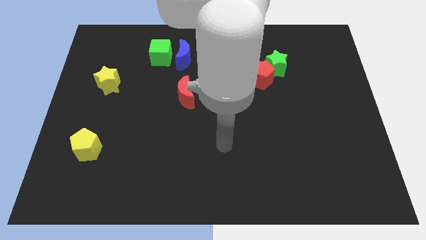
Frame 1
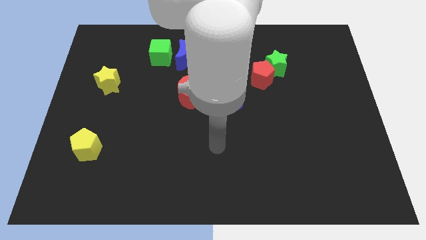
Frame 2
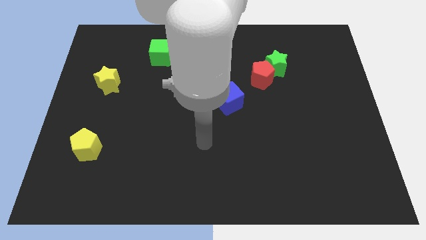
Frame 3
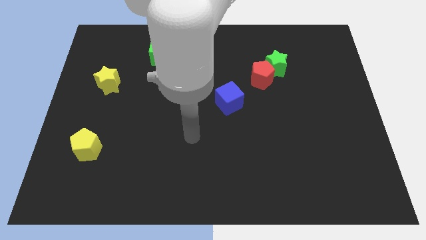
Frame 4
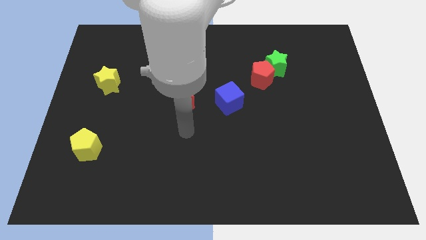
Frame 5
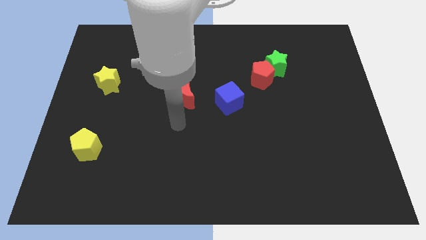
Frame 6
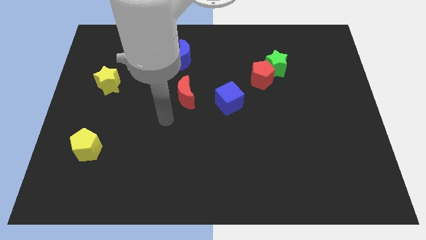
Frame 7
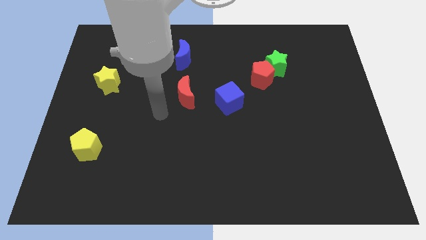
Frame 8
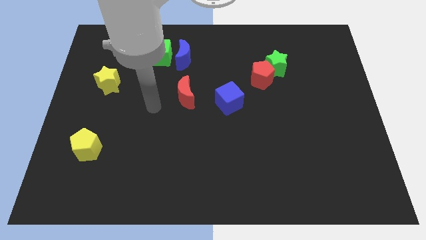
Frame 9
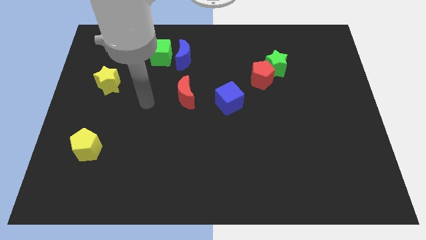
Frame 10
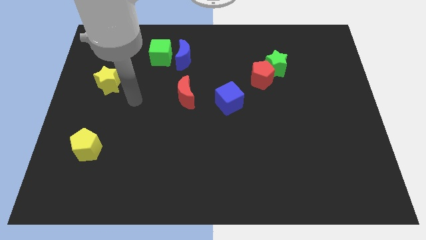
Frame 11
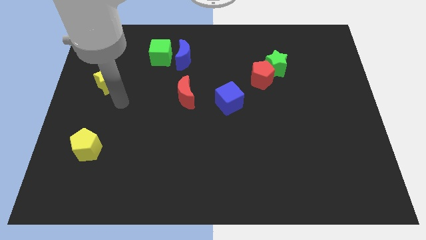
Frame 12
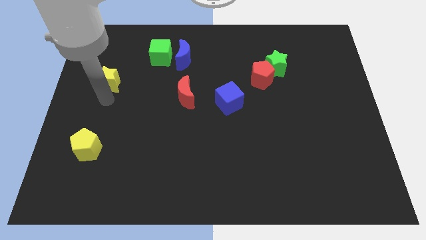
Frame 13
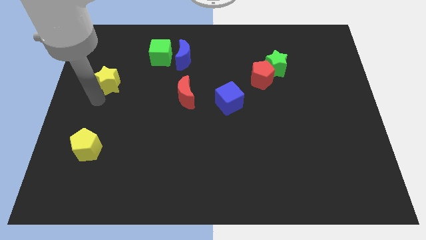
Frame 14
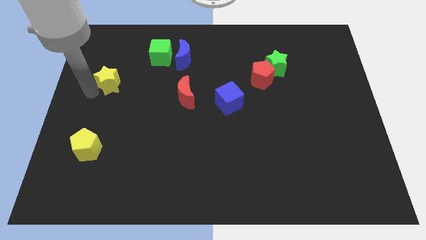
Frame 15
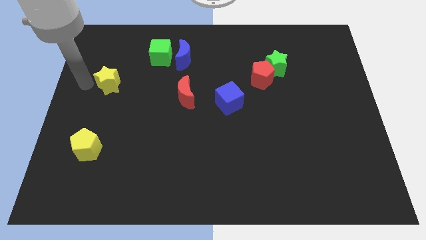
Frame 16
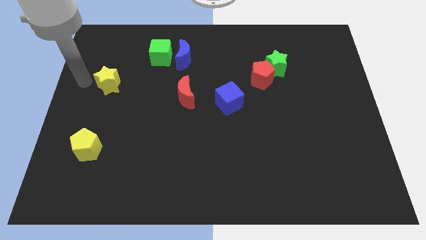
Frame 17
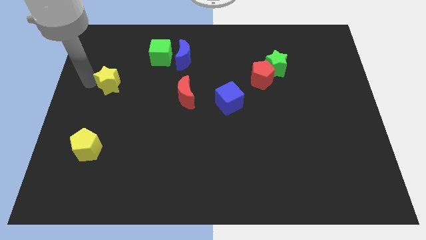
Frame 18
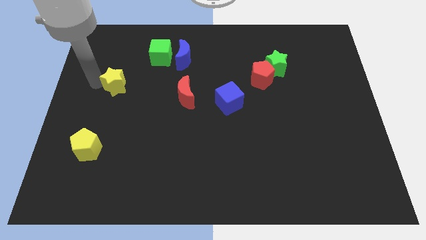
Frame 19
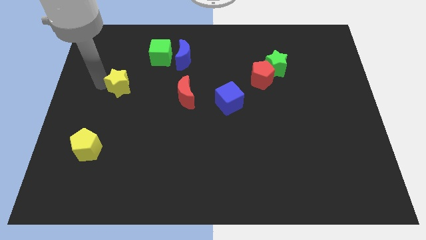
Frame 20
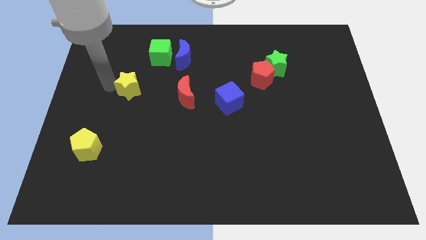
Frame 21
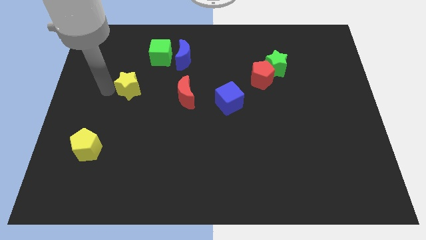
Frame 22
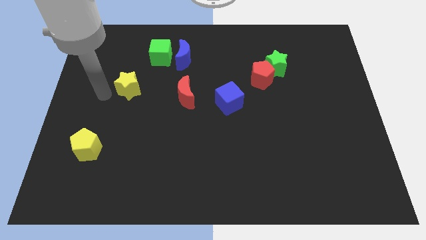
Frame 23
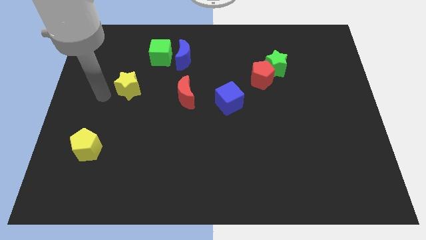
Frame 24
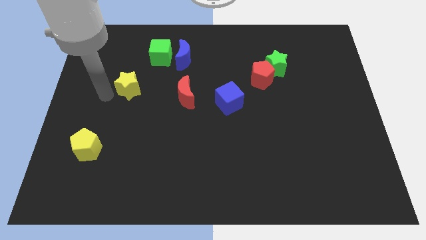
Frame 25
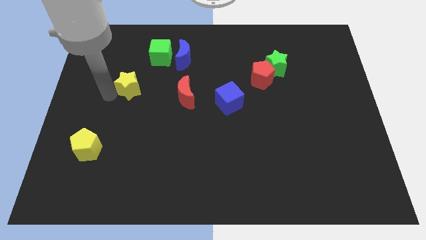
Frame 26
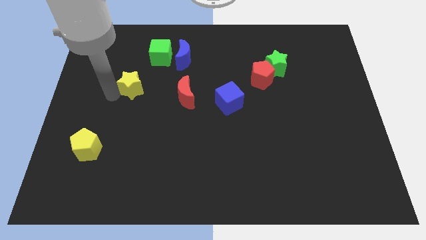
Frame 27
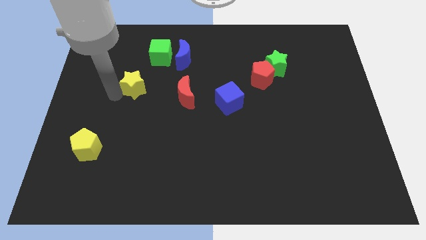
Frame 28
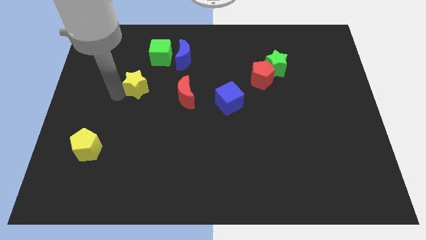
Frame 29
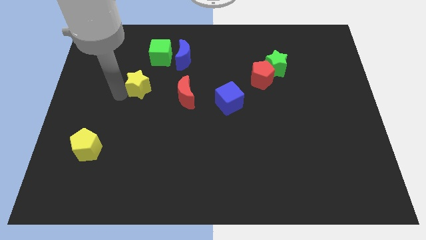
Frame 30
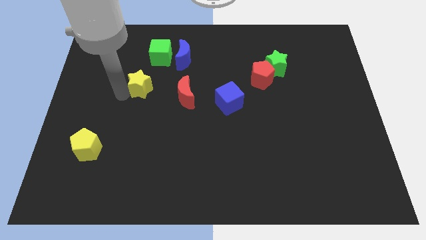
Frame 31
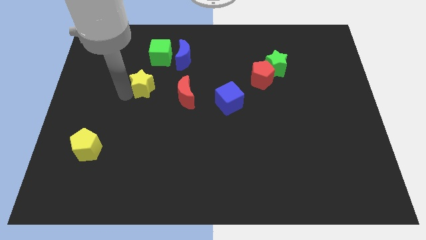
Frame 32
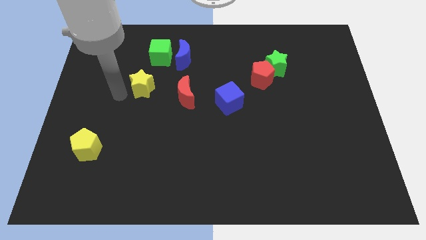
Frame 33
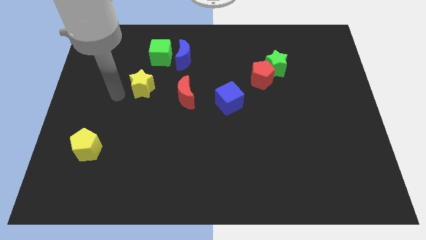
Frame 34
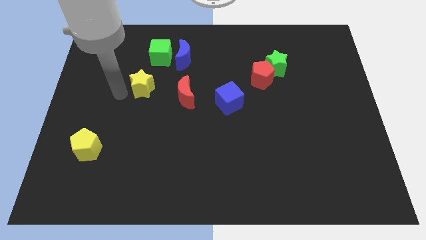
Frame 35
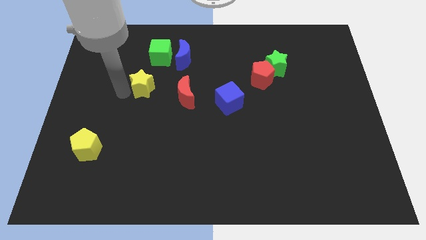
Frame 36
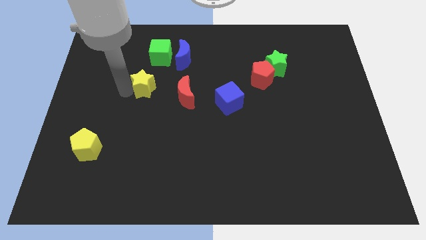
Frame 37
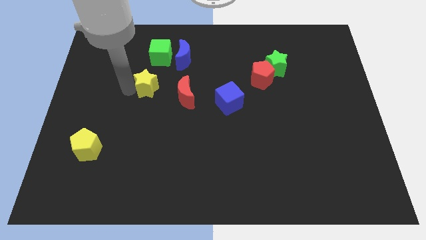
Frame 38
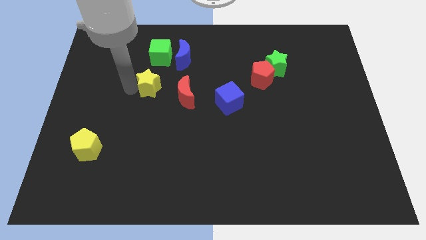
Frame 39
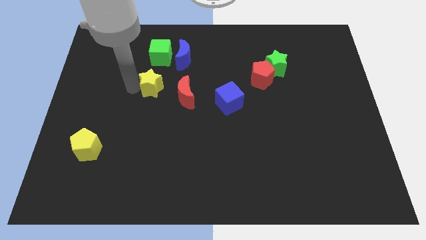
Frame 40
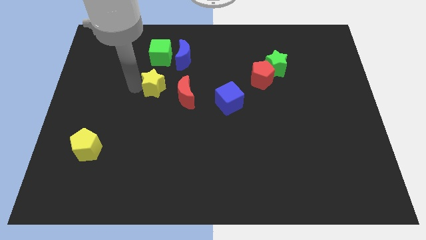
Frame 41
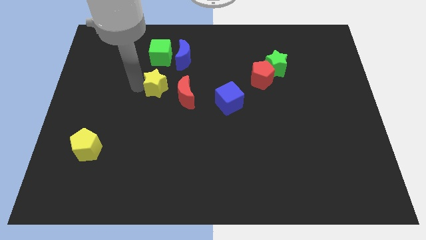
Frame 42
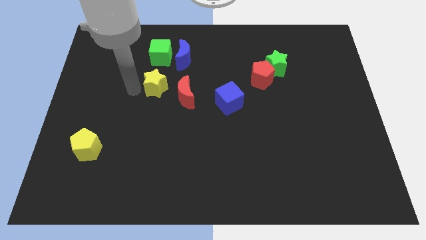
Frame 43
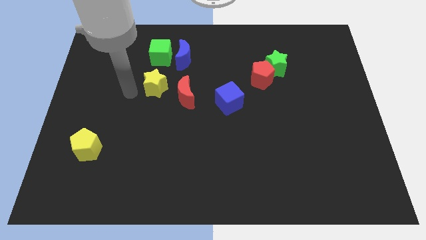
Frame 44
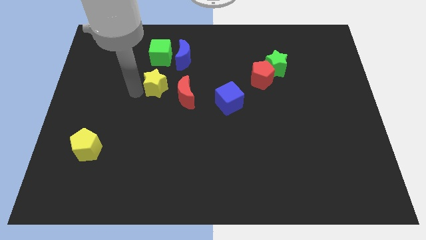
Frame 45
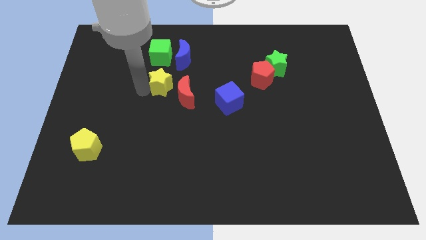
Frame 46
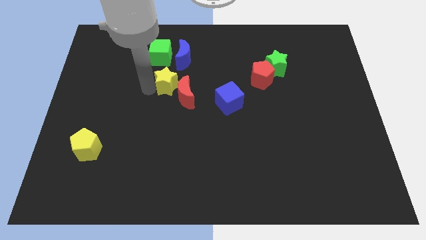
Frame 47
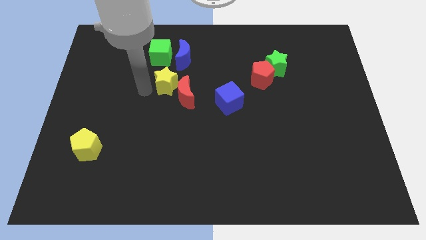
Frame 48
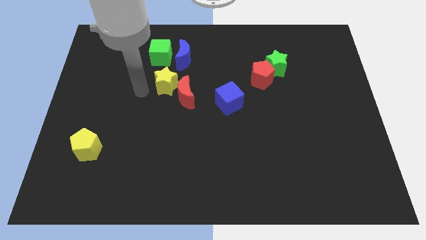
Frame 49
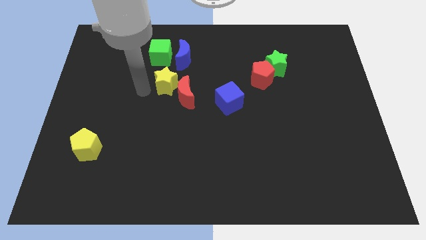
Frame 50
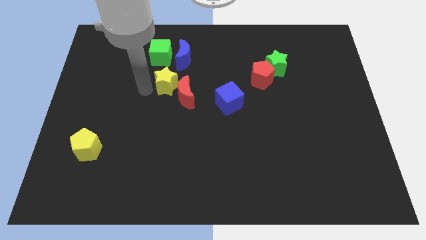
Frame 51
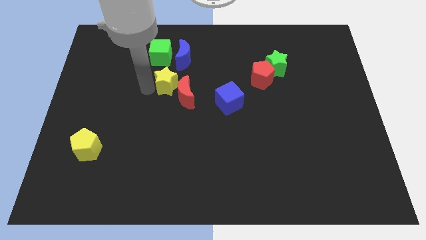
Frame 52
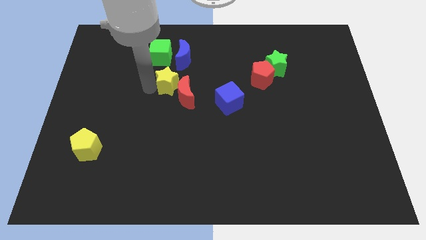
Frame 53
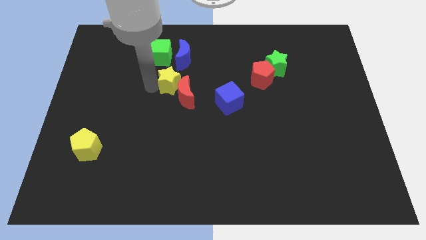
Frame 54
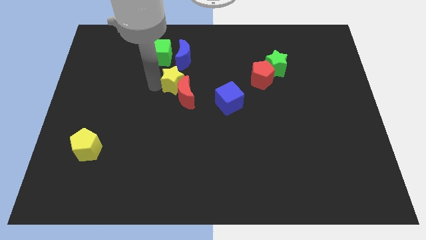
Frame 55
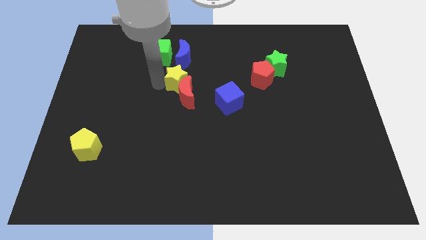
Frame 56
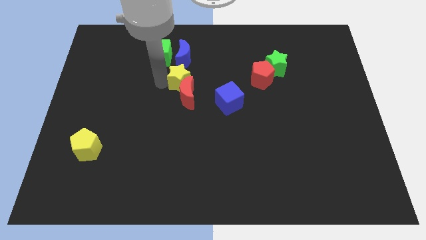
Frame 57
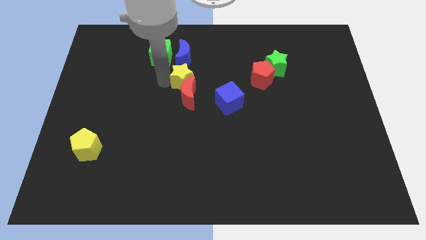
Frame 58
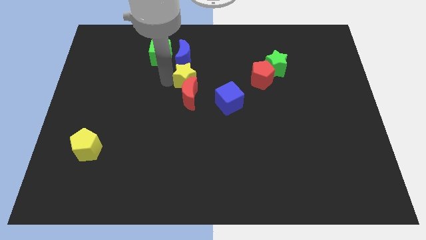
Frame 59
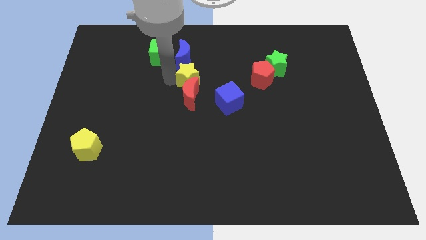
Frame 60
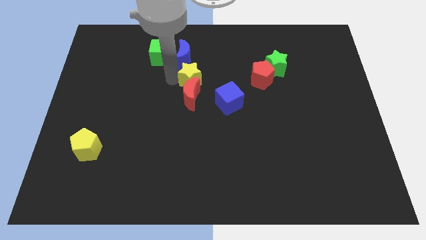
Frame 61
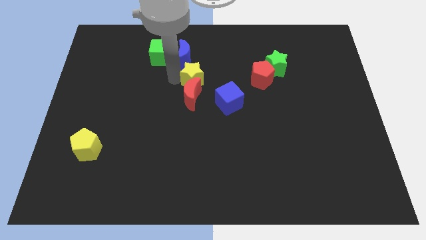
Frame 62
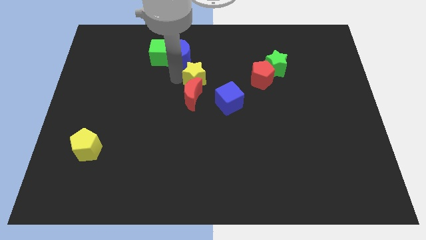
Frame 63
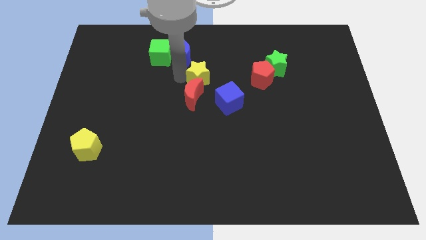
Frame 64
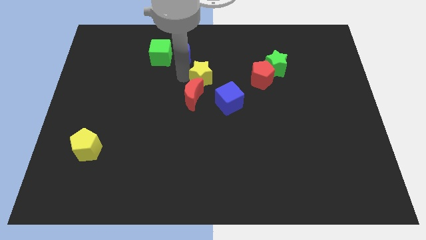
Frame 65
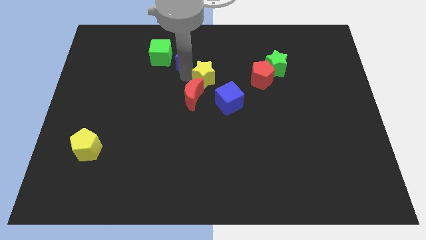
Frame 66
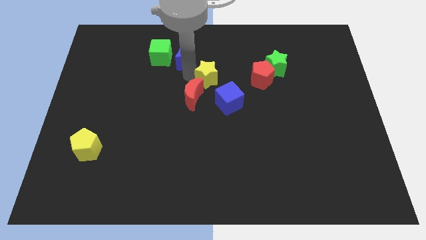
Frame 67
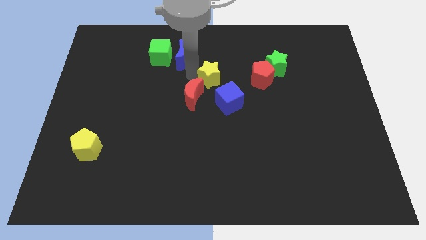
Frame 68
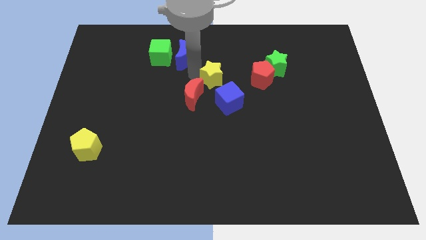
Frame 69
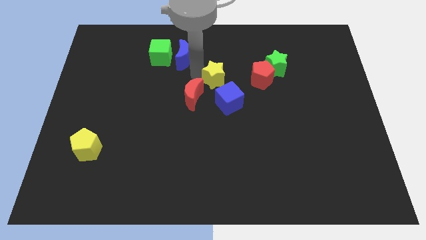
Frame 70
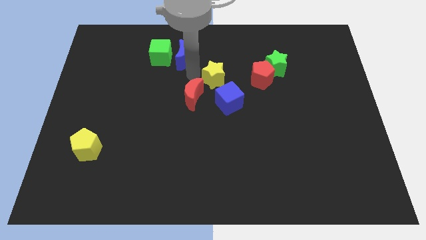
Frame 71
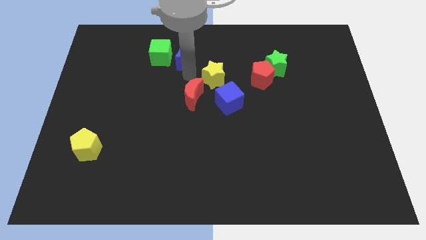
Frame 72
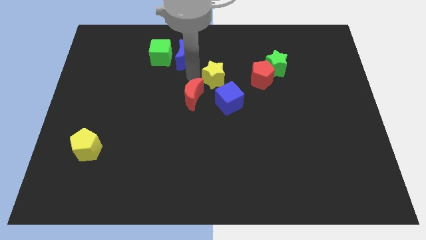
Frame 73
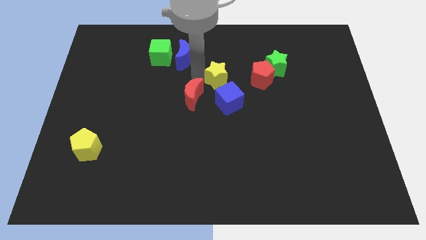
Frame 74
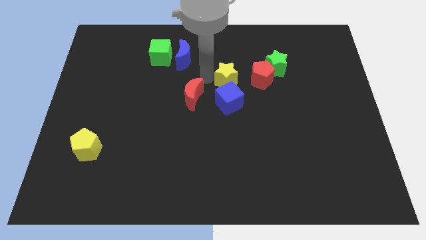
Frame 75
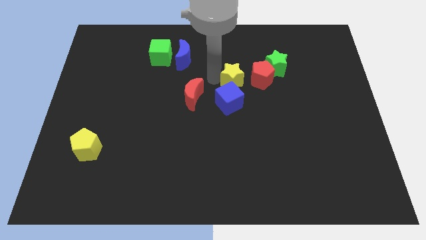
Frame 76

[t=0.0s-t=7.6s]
push the yellow star to the top right side of the blue cube
